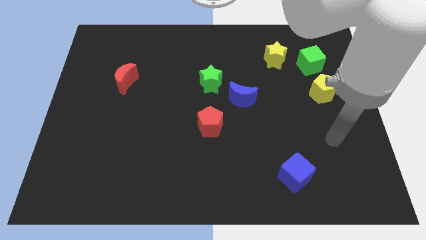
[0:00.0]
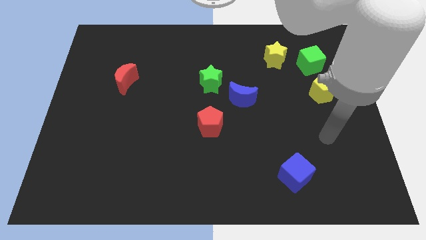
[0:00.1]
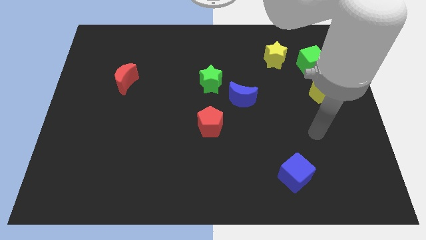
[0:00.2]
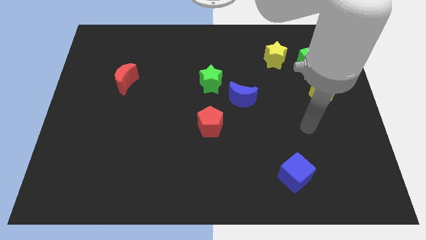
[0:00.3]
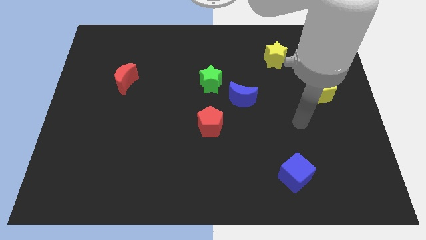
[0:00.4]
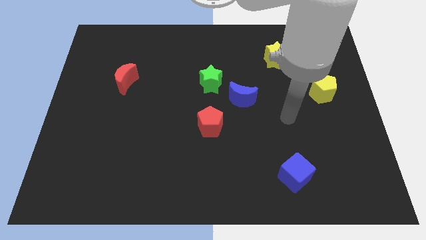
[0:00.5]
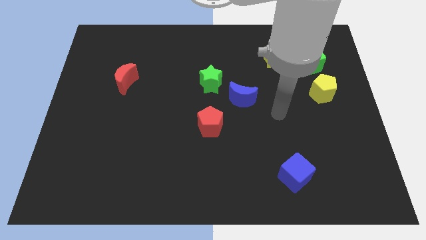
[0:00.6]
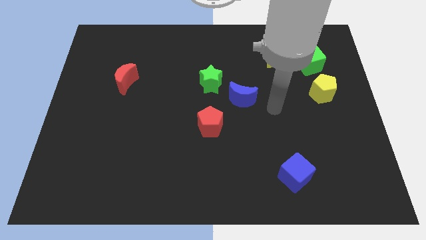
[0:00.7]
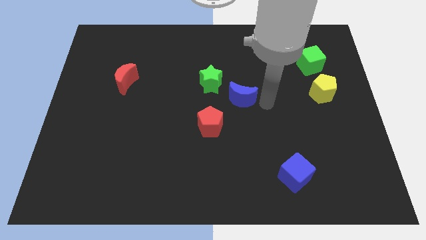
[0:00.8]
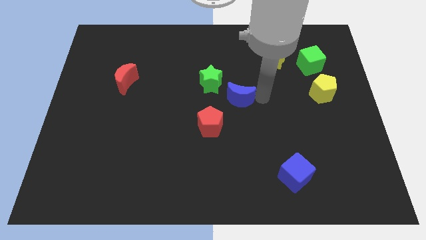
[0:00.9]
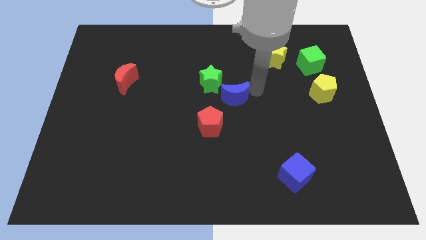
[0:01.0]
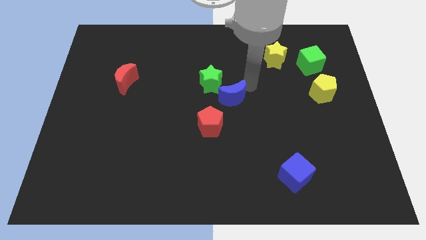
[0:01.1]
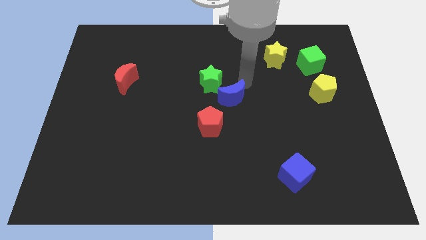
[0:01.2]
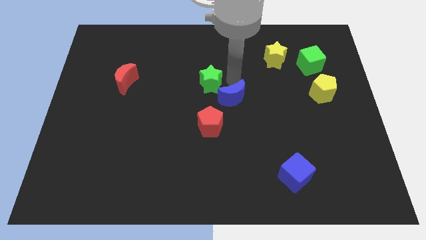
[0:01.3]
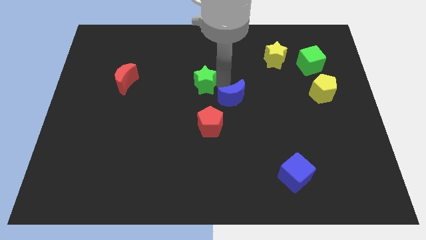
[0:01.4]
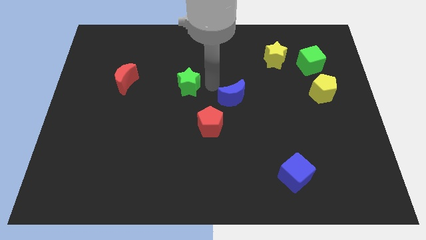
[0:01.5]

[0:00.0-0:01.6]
pull the blue moon apart from the green star

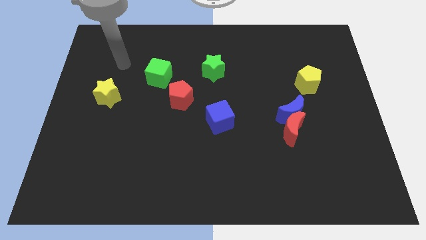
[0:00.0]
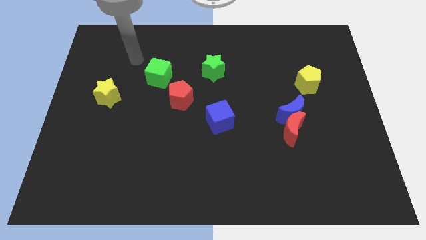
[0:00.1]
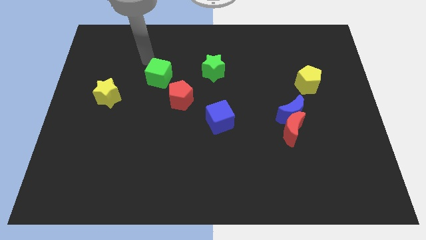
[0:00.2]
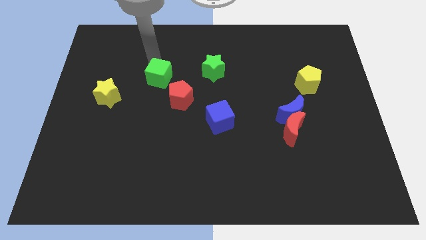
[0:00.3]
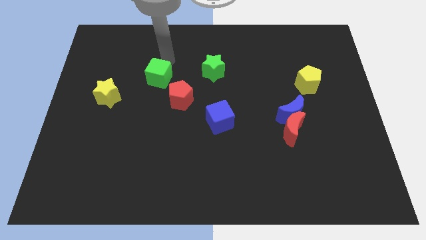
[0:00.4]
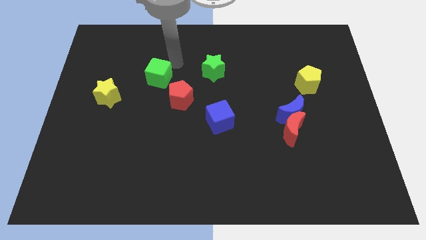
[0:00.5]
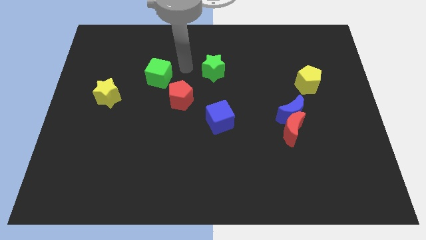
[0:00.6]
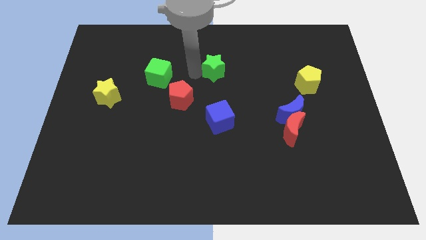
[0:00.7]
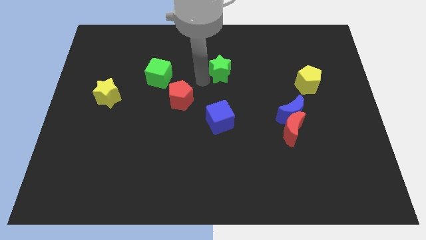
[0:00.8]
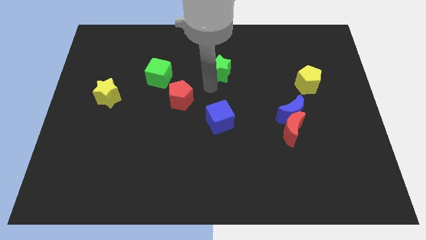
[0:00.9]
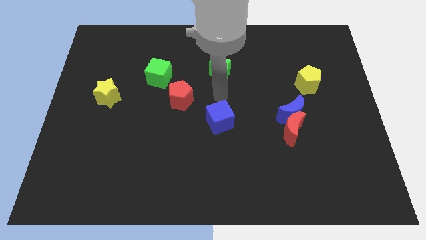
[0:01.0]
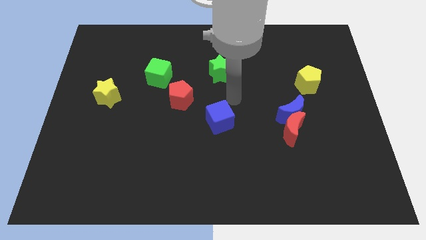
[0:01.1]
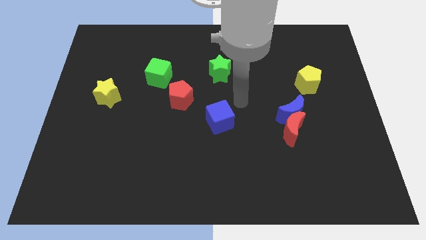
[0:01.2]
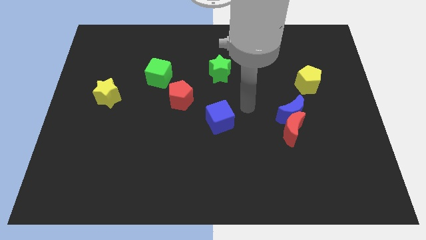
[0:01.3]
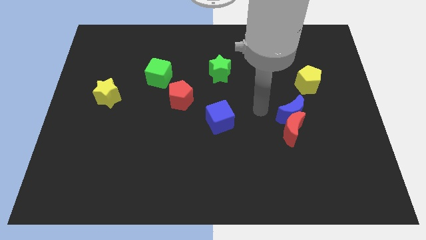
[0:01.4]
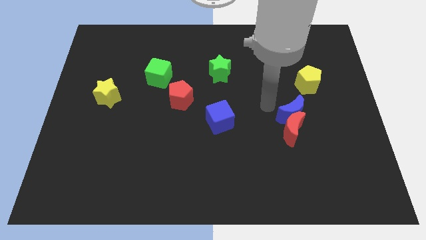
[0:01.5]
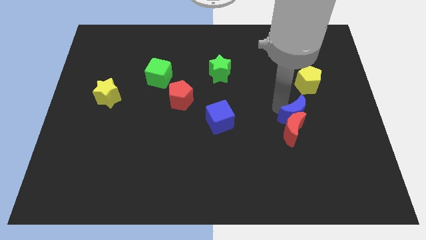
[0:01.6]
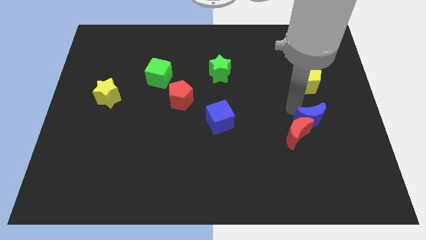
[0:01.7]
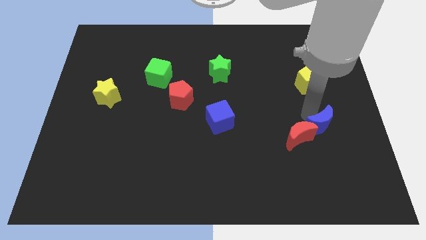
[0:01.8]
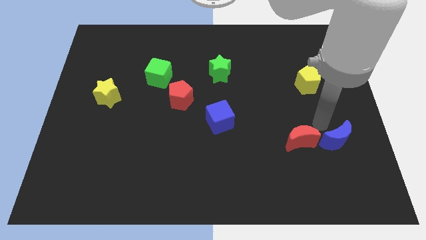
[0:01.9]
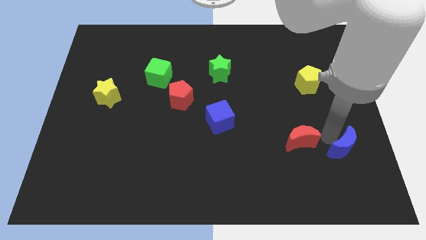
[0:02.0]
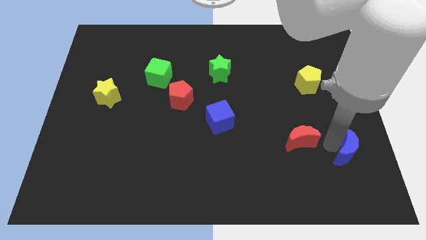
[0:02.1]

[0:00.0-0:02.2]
pull the red moon apart from the blue moon

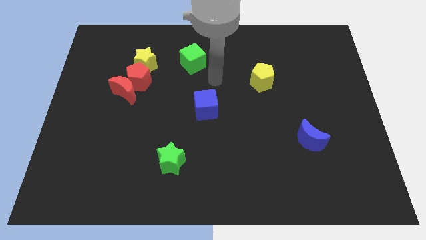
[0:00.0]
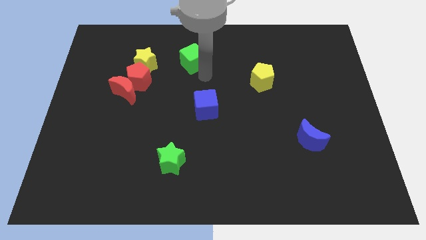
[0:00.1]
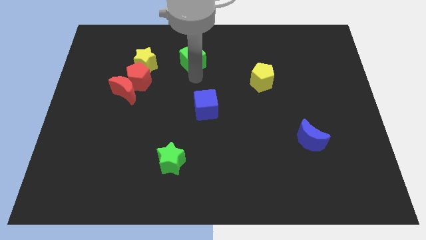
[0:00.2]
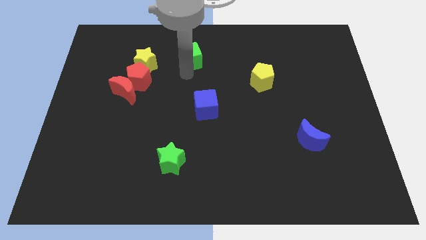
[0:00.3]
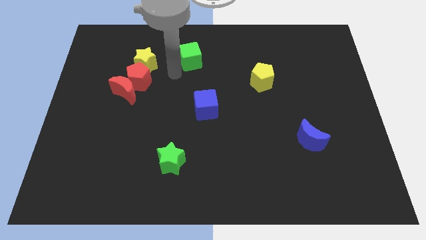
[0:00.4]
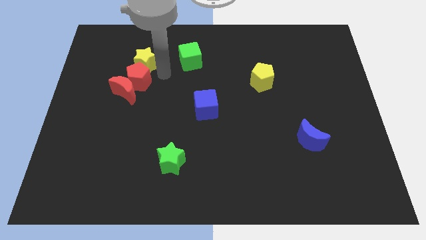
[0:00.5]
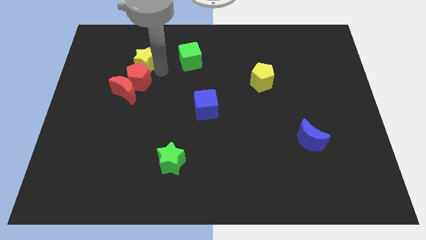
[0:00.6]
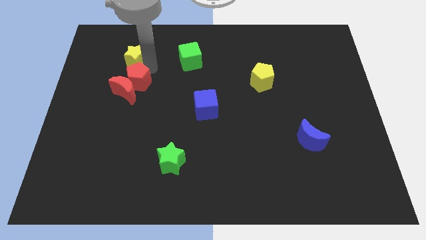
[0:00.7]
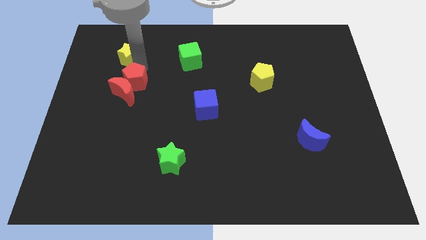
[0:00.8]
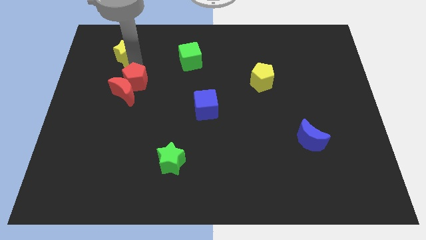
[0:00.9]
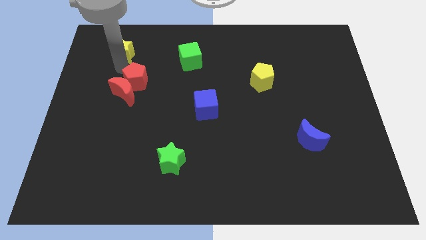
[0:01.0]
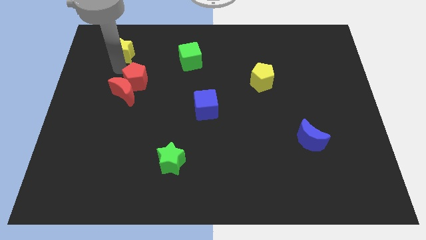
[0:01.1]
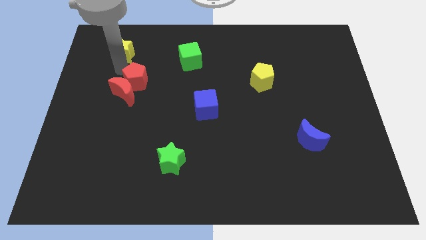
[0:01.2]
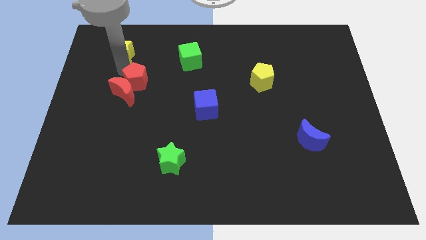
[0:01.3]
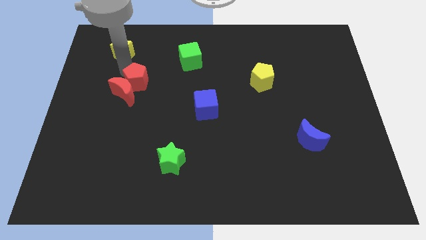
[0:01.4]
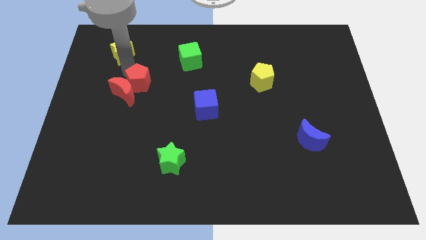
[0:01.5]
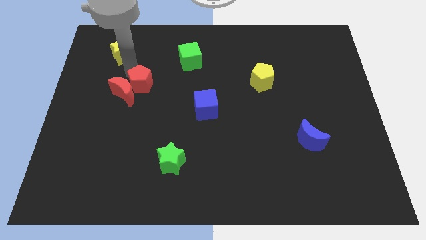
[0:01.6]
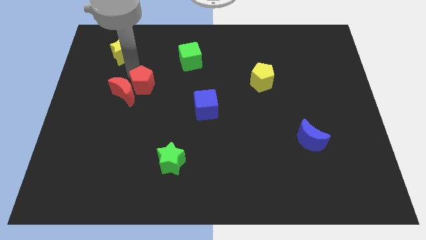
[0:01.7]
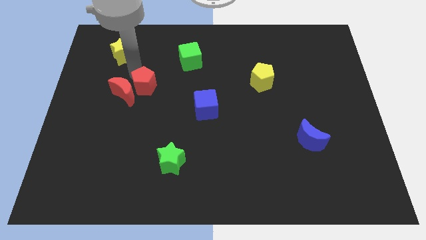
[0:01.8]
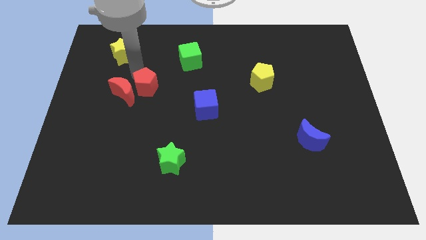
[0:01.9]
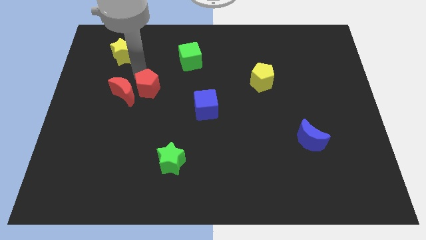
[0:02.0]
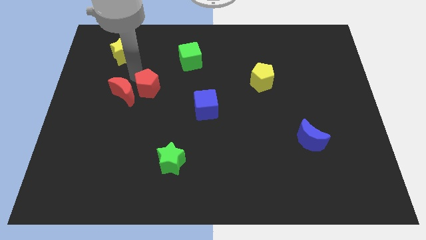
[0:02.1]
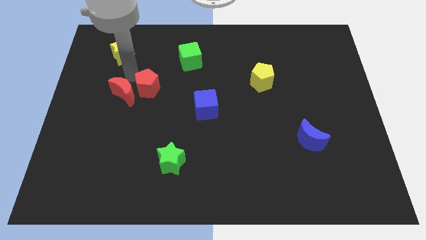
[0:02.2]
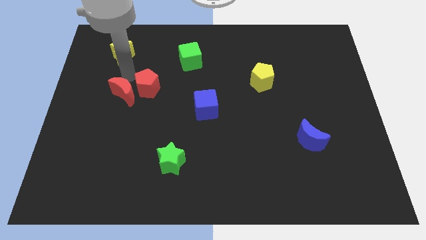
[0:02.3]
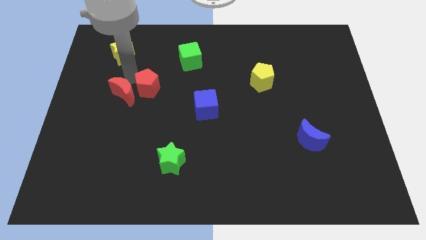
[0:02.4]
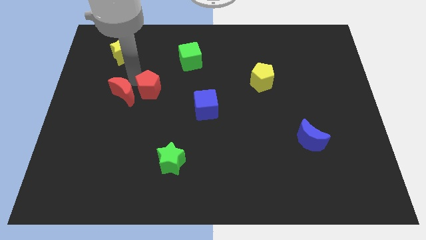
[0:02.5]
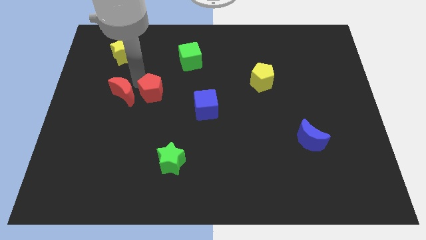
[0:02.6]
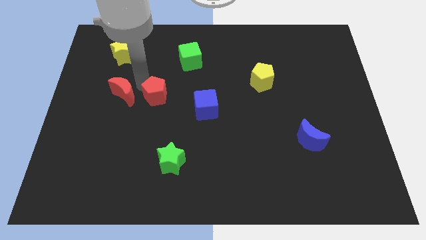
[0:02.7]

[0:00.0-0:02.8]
pull the red pentagon apart from the red moon and yellow star

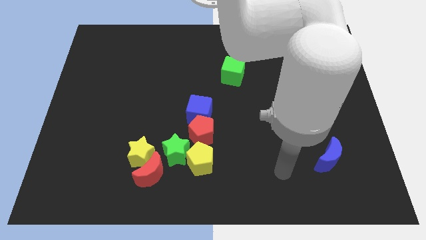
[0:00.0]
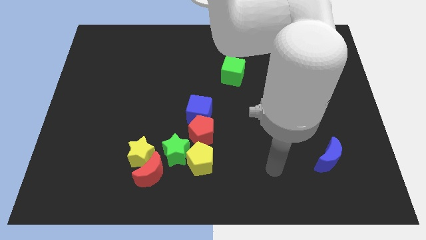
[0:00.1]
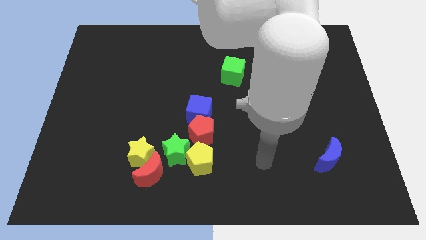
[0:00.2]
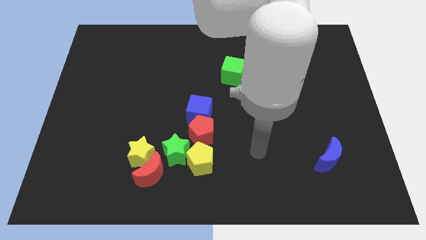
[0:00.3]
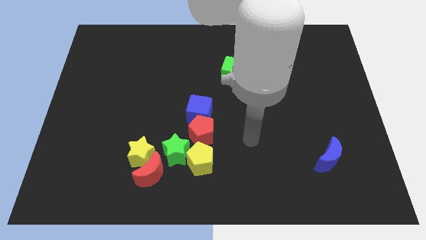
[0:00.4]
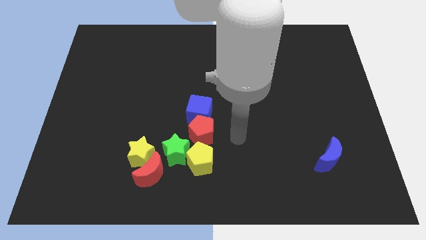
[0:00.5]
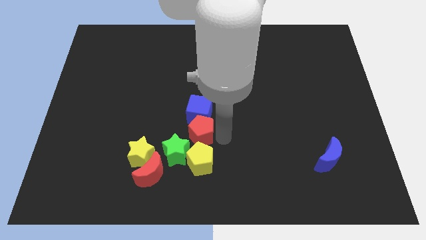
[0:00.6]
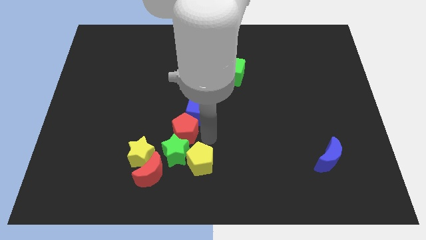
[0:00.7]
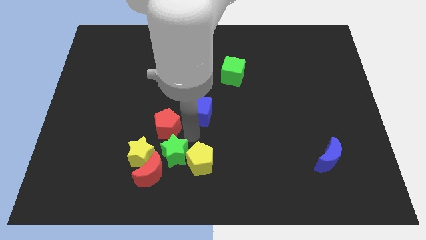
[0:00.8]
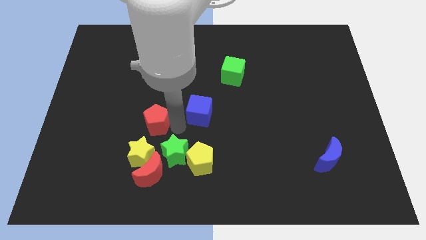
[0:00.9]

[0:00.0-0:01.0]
move the blue cube away from the red pentagon

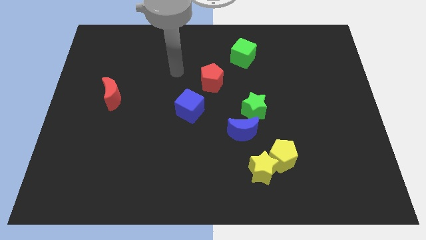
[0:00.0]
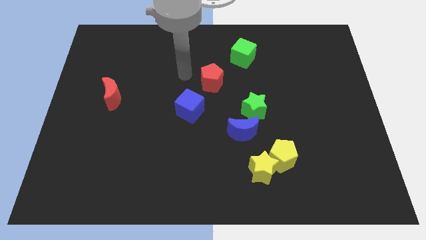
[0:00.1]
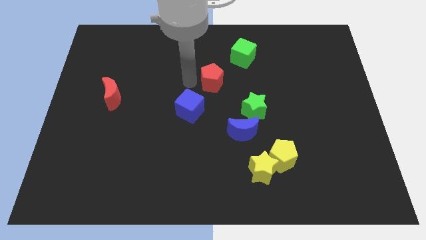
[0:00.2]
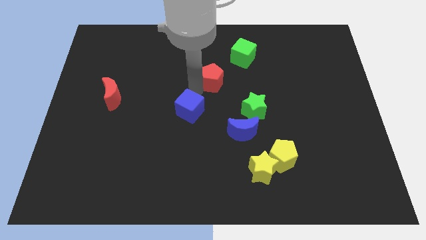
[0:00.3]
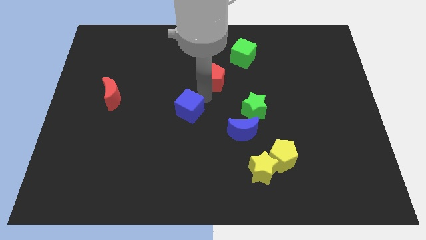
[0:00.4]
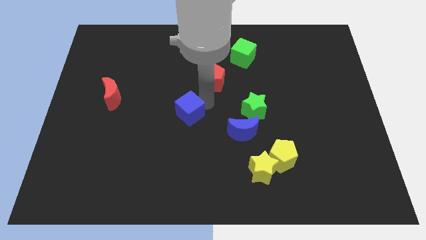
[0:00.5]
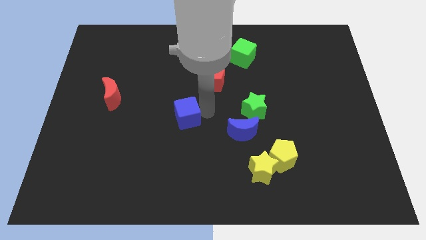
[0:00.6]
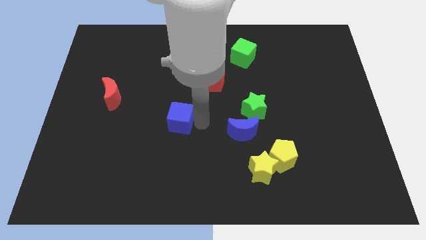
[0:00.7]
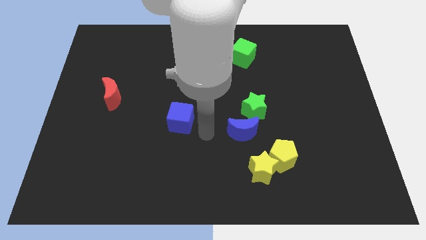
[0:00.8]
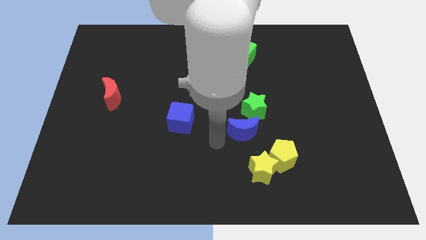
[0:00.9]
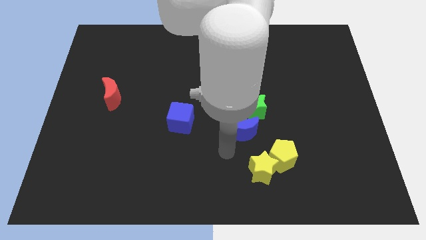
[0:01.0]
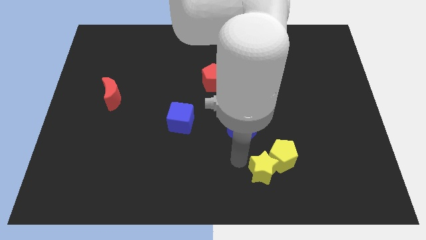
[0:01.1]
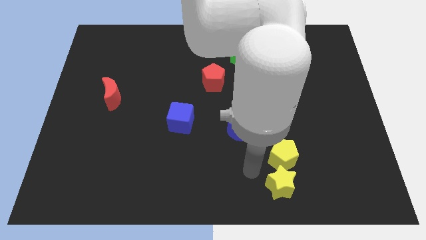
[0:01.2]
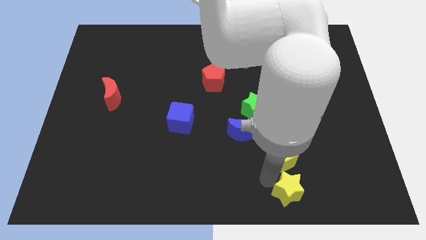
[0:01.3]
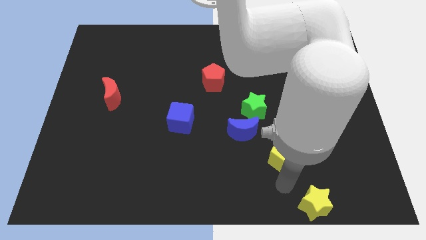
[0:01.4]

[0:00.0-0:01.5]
move the yellow pentagon away from the yellow star

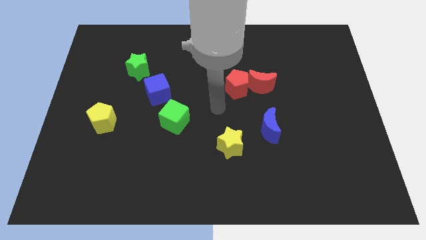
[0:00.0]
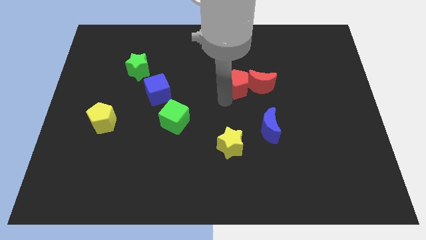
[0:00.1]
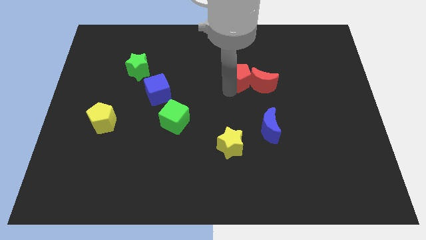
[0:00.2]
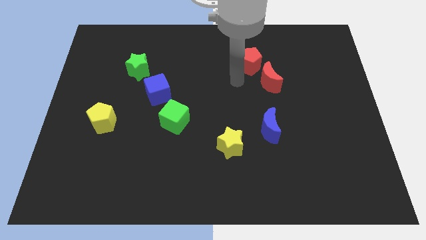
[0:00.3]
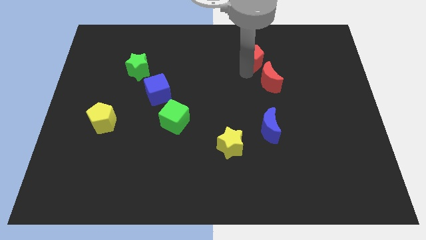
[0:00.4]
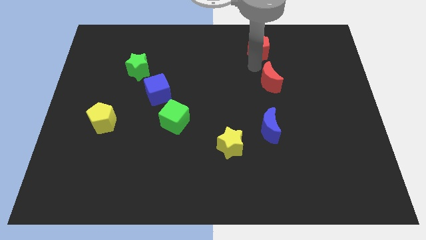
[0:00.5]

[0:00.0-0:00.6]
move the red moon away from the red pentagon
